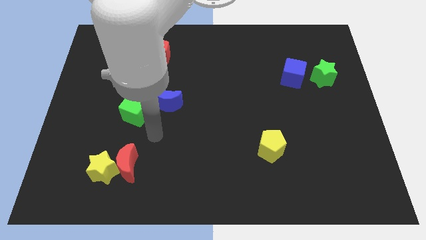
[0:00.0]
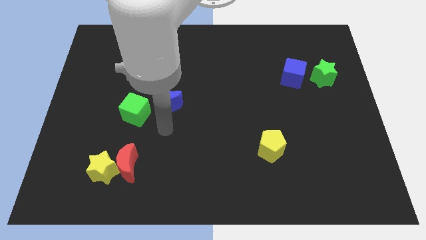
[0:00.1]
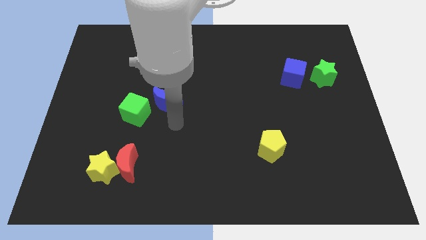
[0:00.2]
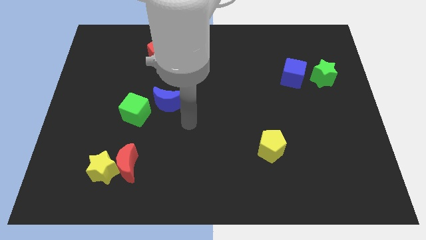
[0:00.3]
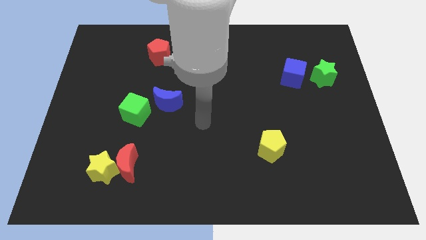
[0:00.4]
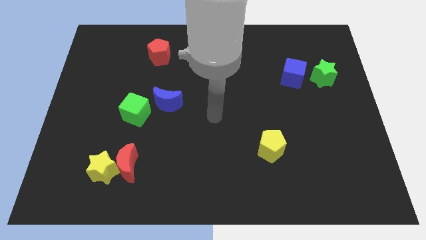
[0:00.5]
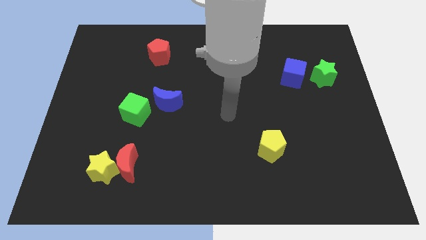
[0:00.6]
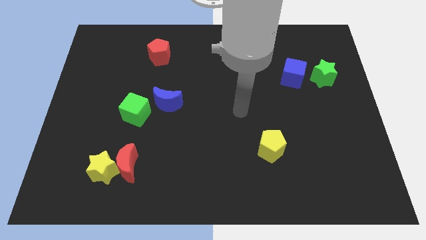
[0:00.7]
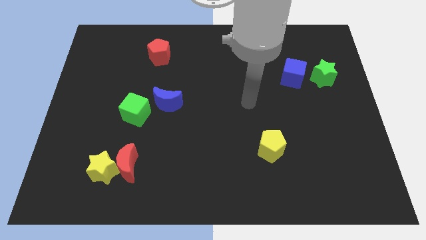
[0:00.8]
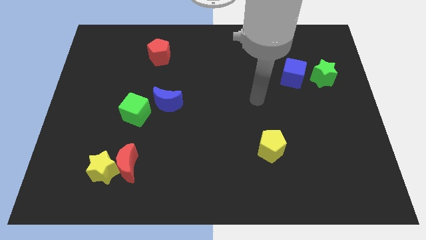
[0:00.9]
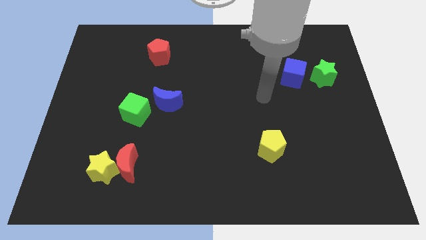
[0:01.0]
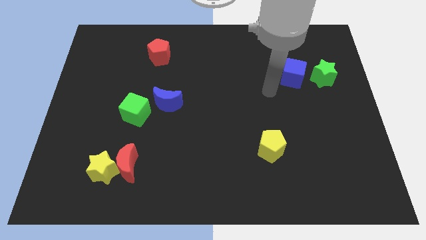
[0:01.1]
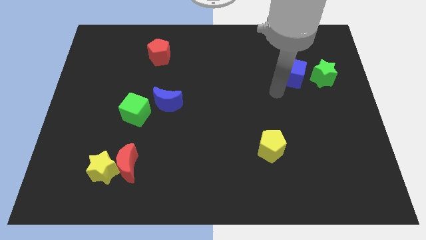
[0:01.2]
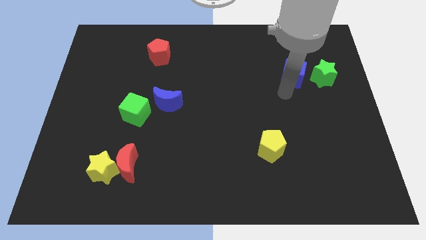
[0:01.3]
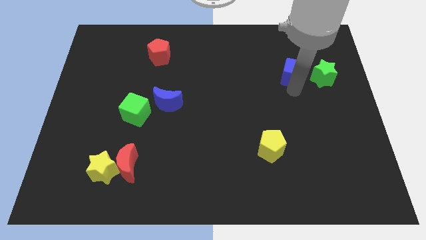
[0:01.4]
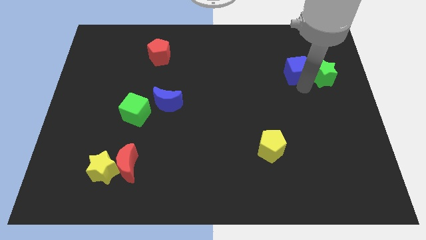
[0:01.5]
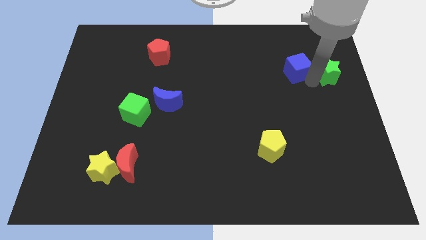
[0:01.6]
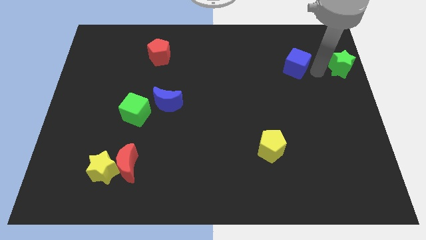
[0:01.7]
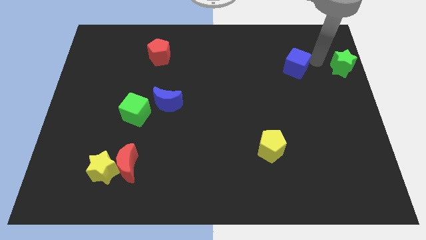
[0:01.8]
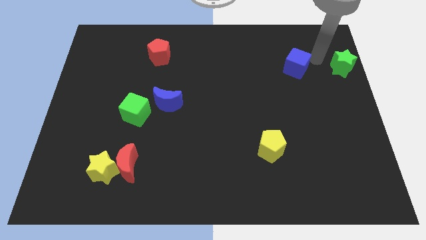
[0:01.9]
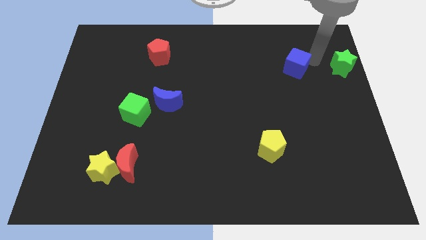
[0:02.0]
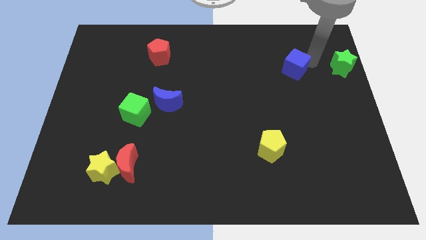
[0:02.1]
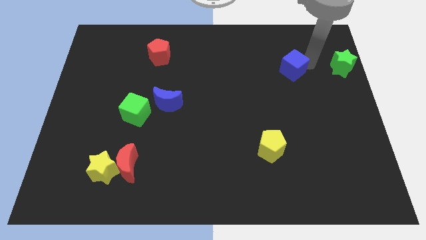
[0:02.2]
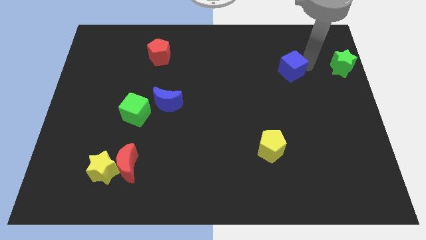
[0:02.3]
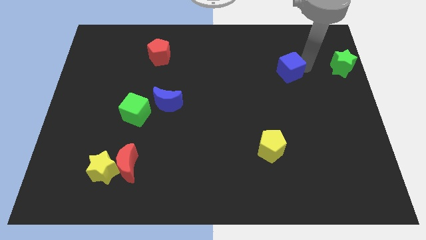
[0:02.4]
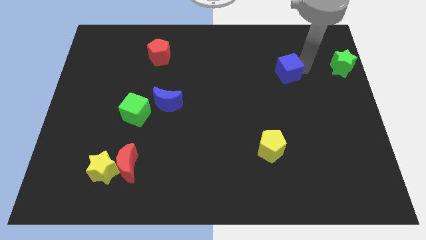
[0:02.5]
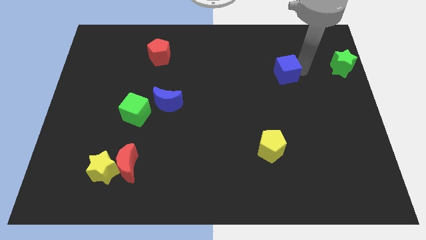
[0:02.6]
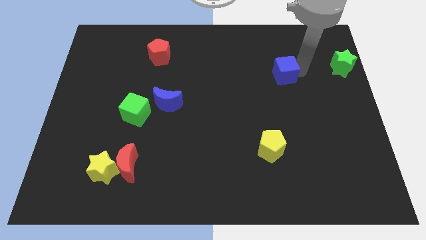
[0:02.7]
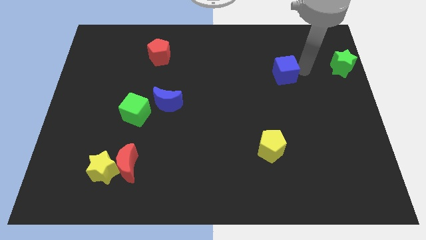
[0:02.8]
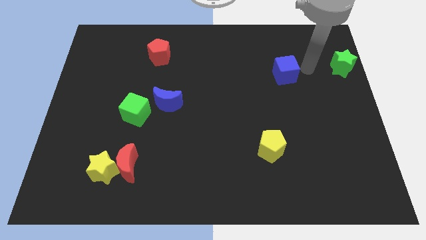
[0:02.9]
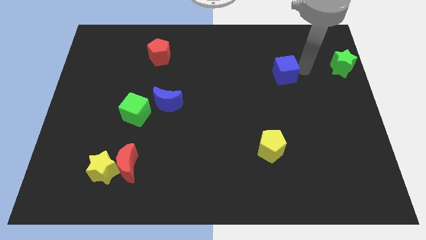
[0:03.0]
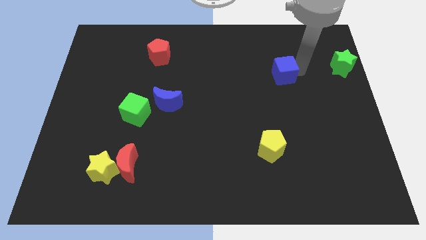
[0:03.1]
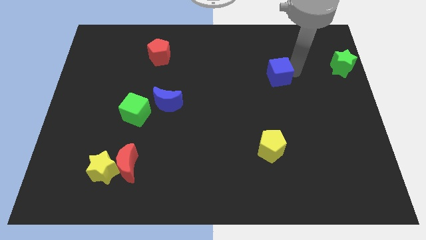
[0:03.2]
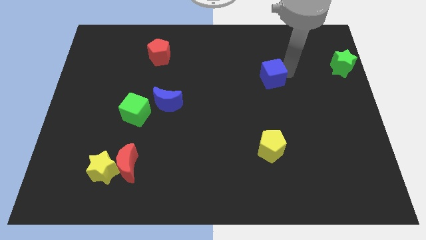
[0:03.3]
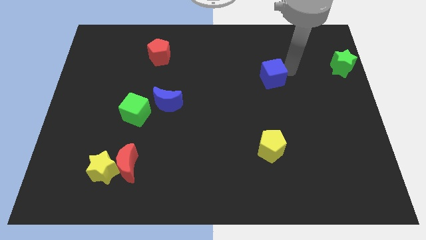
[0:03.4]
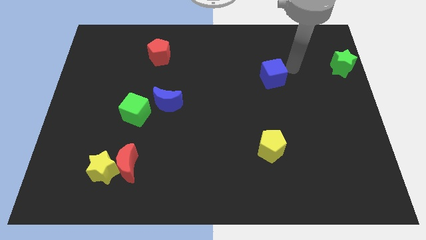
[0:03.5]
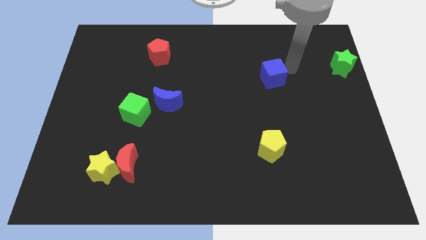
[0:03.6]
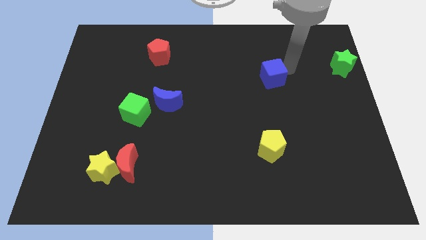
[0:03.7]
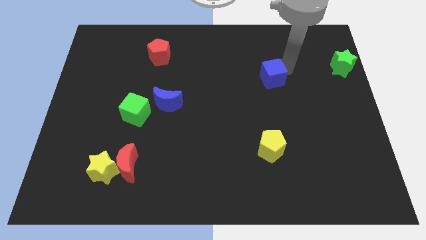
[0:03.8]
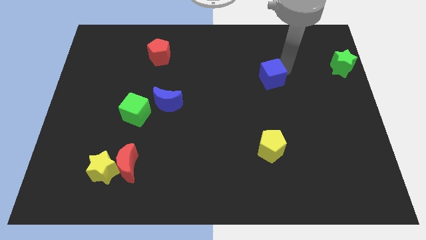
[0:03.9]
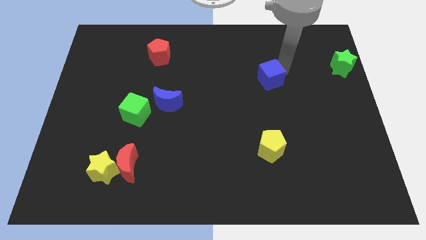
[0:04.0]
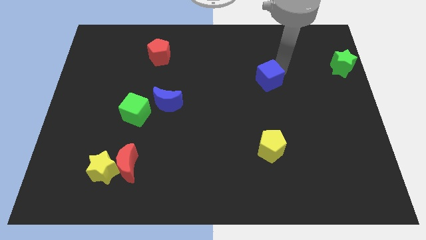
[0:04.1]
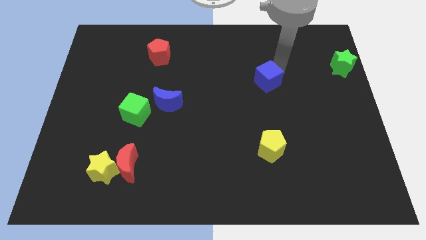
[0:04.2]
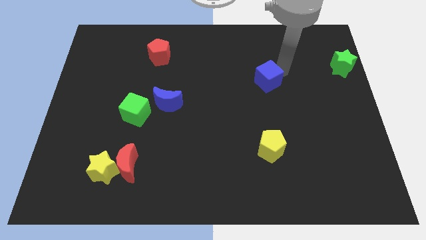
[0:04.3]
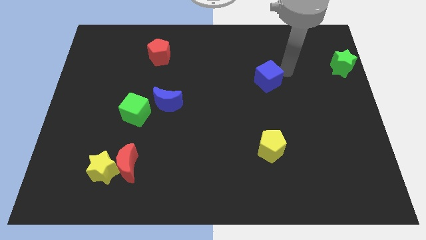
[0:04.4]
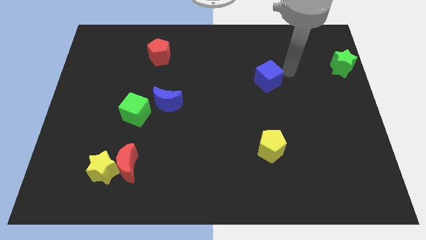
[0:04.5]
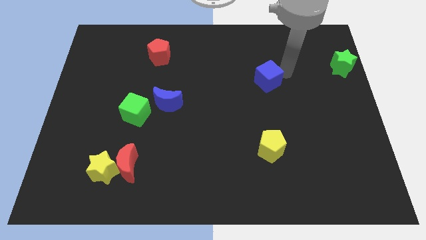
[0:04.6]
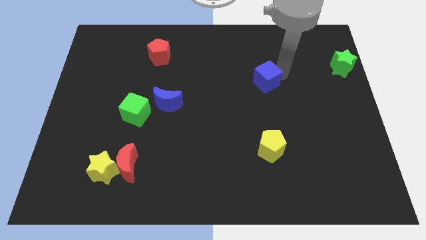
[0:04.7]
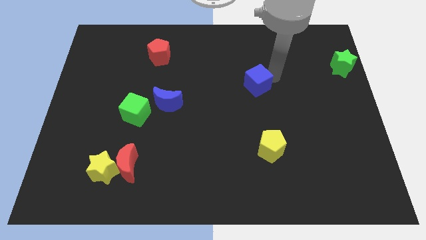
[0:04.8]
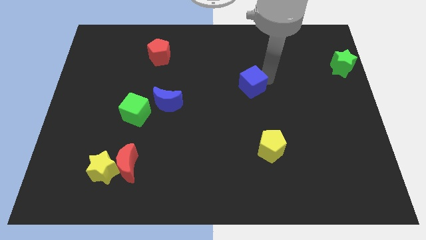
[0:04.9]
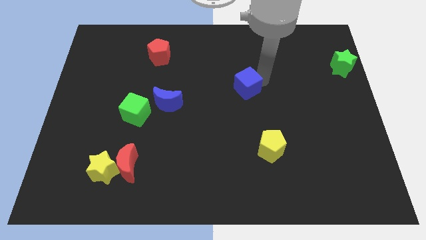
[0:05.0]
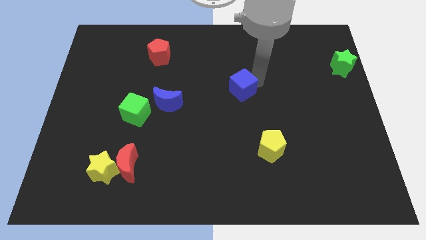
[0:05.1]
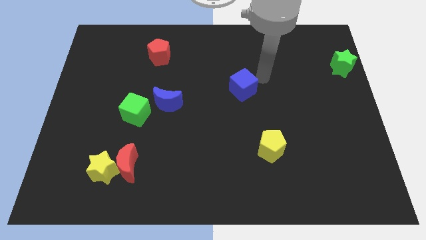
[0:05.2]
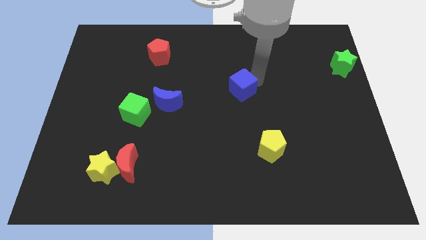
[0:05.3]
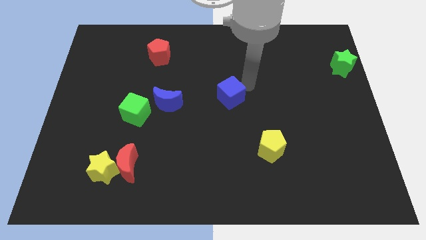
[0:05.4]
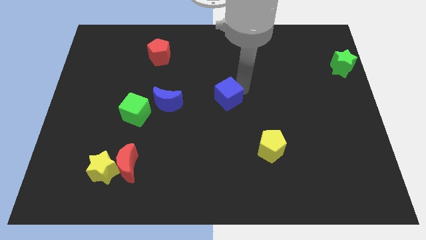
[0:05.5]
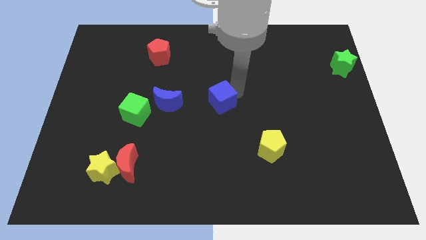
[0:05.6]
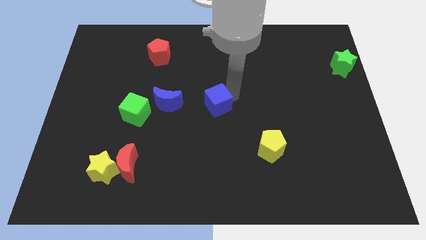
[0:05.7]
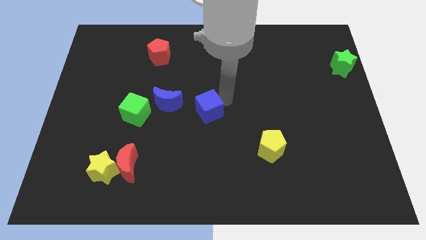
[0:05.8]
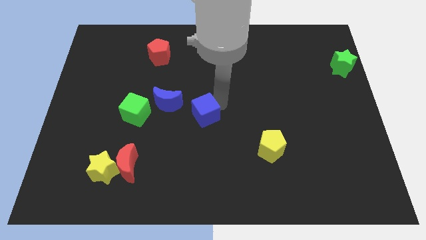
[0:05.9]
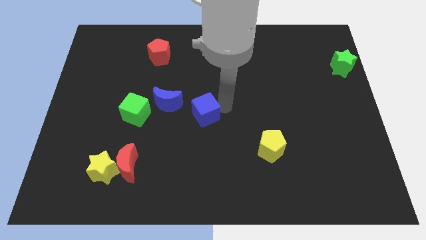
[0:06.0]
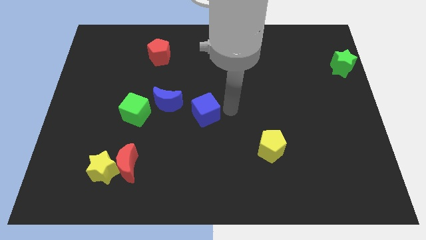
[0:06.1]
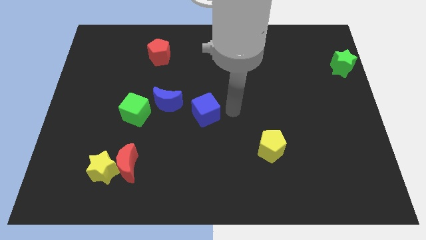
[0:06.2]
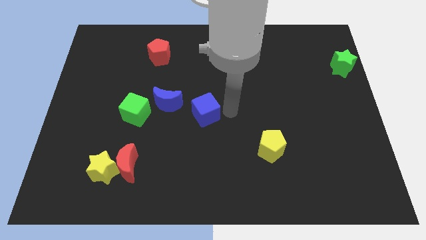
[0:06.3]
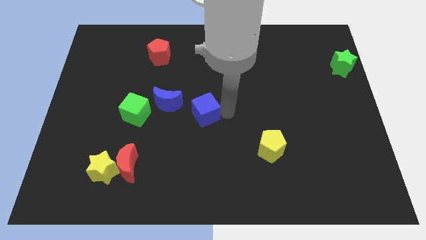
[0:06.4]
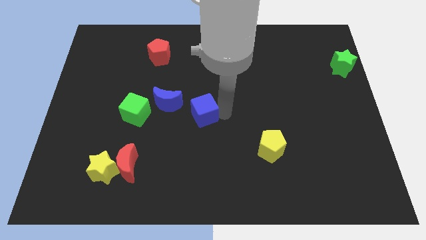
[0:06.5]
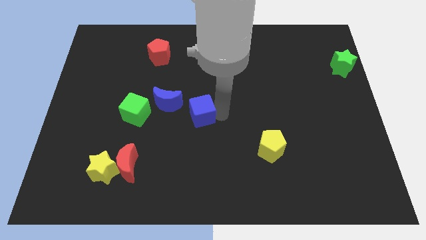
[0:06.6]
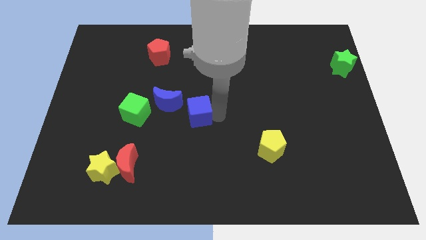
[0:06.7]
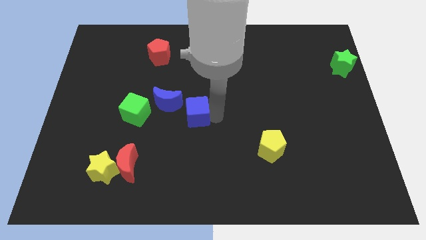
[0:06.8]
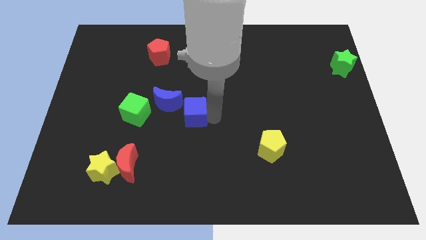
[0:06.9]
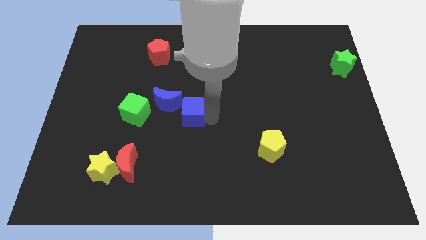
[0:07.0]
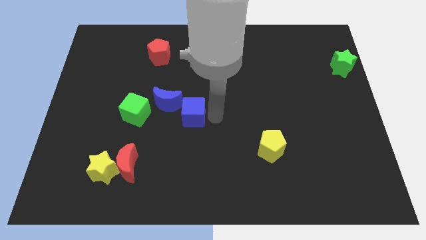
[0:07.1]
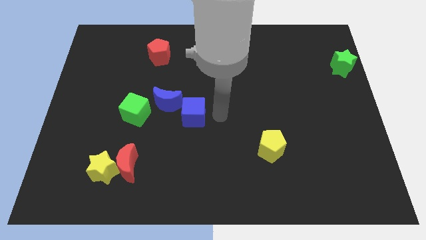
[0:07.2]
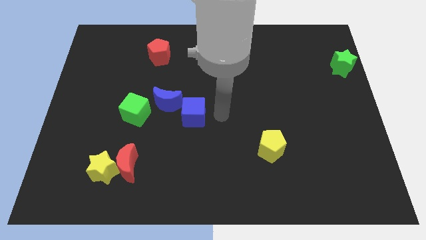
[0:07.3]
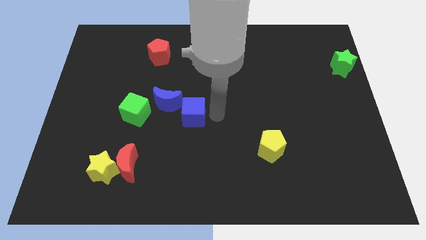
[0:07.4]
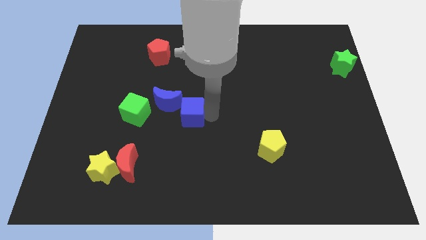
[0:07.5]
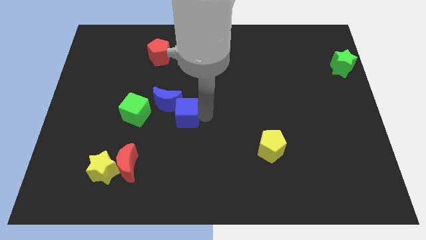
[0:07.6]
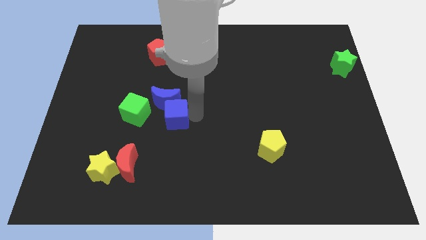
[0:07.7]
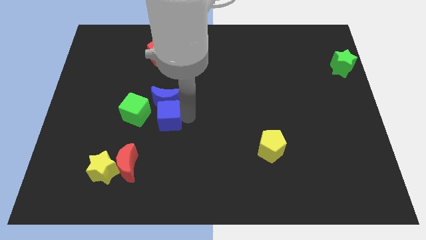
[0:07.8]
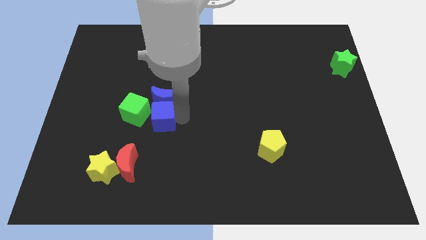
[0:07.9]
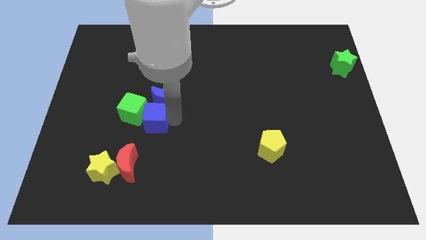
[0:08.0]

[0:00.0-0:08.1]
move the blue cube towards the green cube
